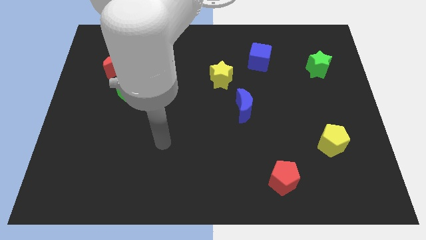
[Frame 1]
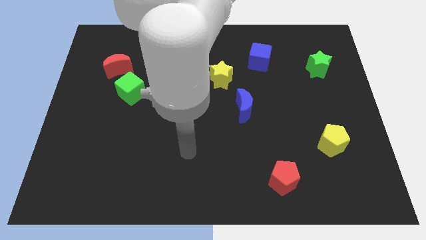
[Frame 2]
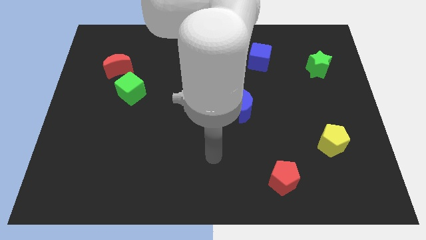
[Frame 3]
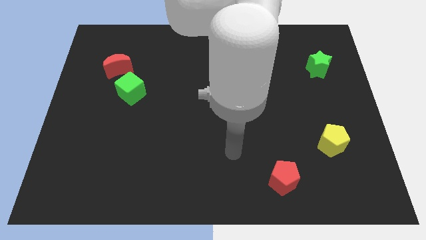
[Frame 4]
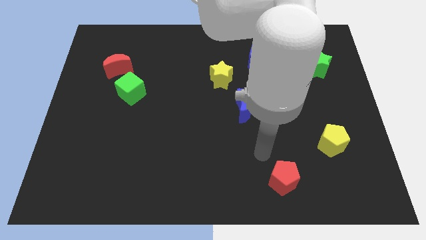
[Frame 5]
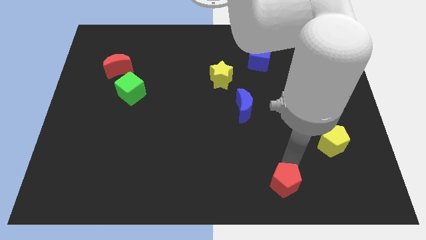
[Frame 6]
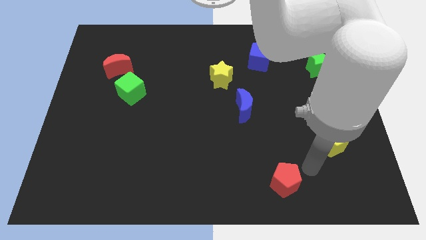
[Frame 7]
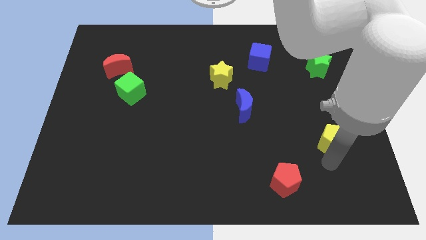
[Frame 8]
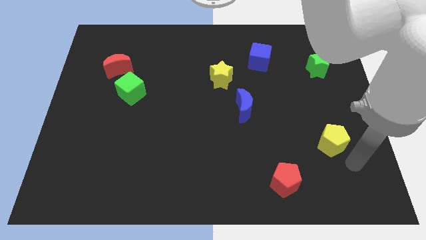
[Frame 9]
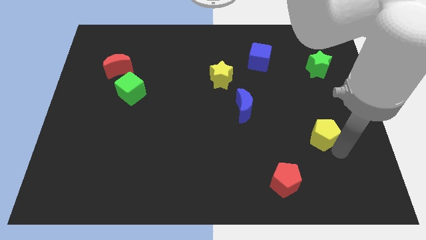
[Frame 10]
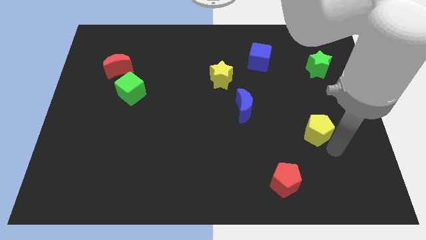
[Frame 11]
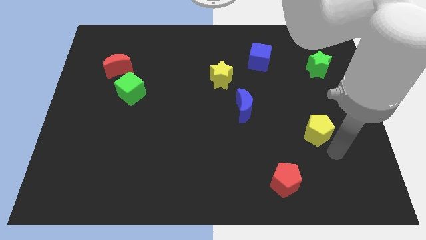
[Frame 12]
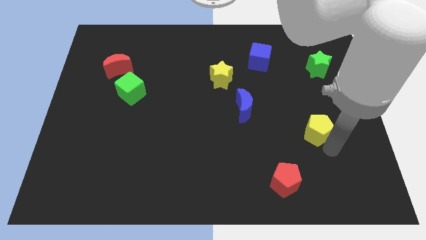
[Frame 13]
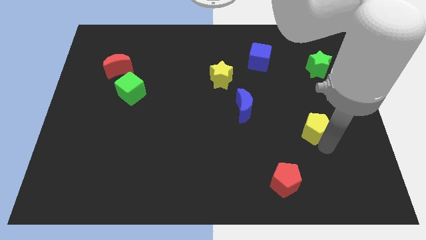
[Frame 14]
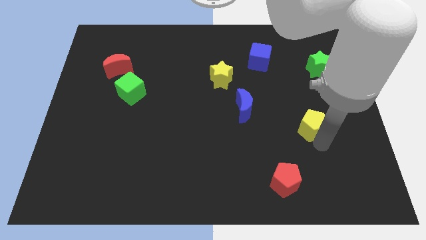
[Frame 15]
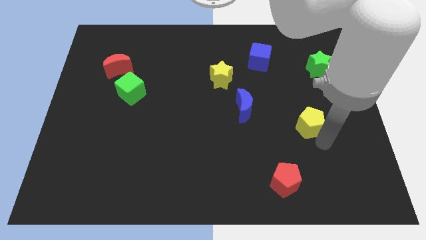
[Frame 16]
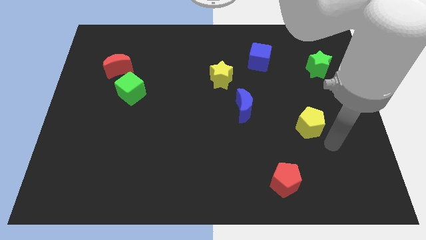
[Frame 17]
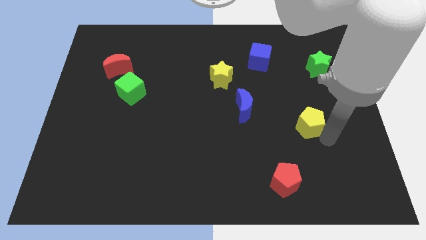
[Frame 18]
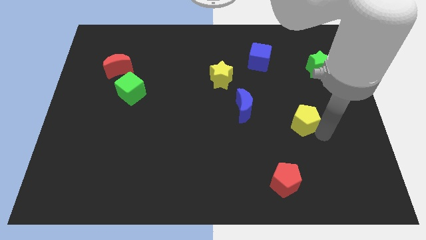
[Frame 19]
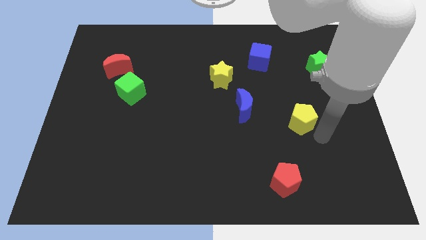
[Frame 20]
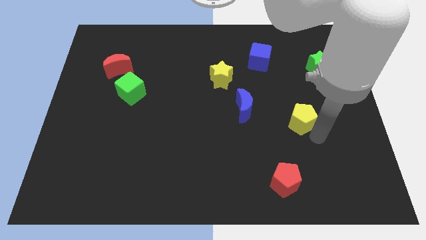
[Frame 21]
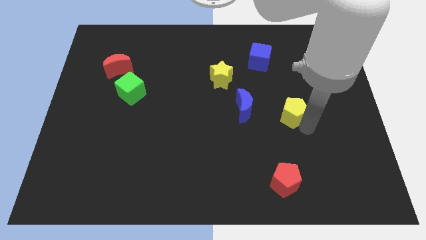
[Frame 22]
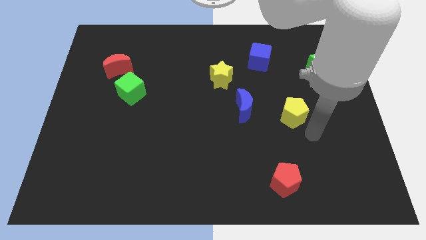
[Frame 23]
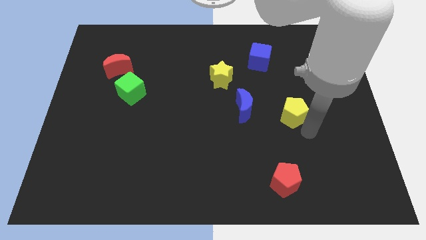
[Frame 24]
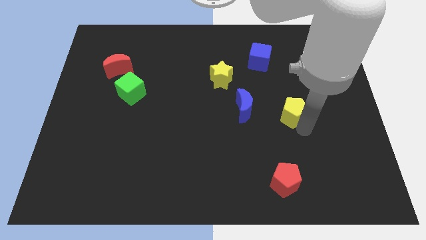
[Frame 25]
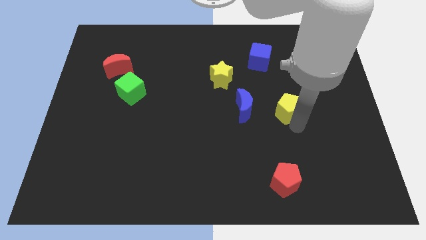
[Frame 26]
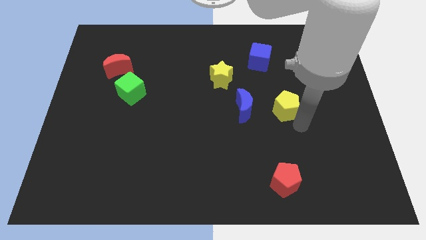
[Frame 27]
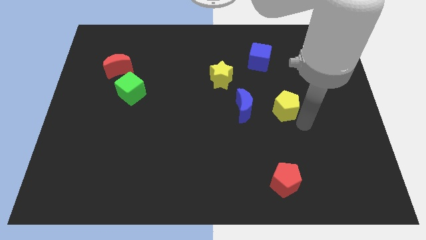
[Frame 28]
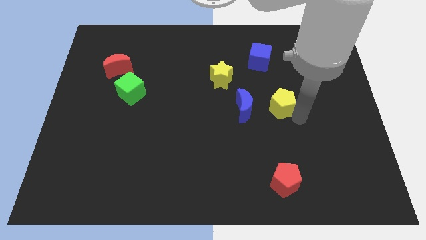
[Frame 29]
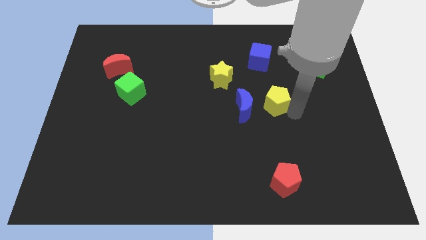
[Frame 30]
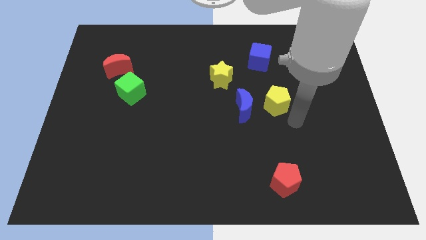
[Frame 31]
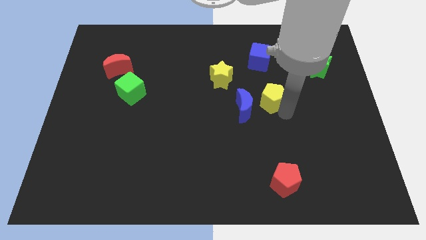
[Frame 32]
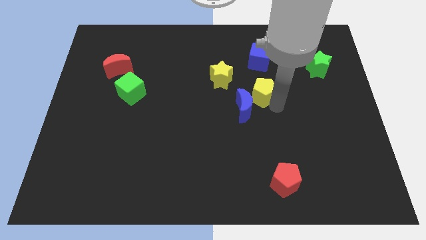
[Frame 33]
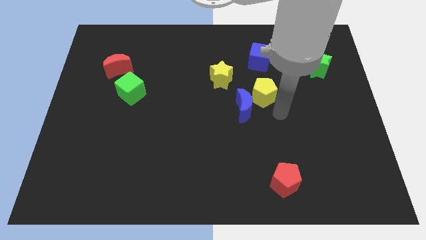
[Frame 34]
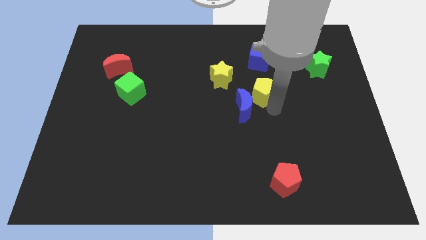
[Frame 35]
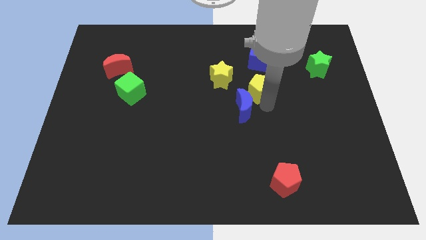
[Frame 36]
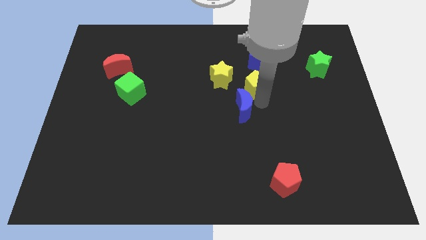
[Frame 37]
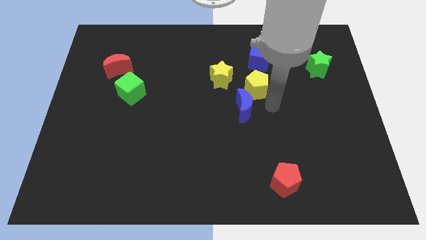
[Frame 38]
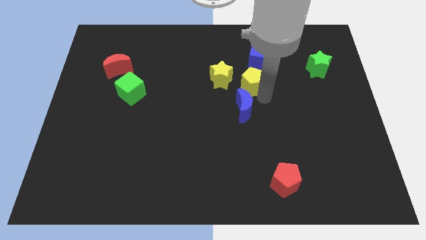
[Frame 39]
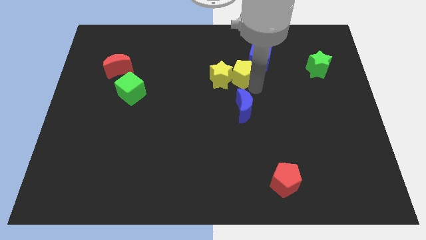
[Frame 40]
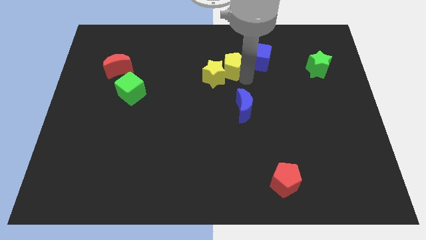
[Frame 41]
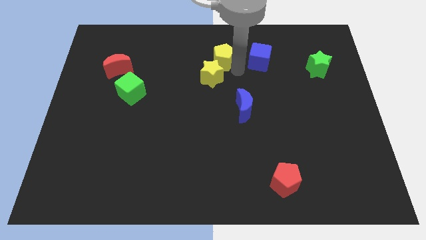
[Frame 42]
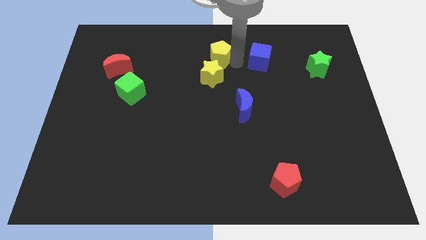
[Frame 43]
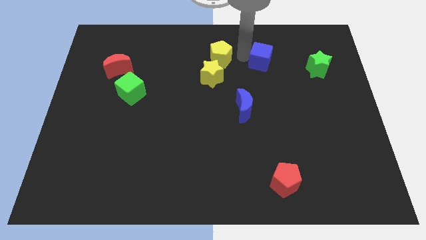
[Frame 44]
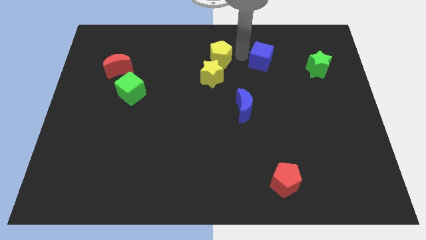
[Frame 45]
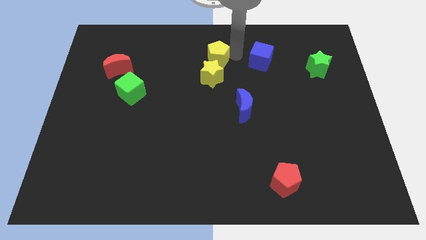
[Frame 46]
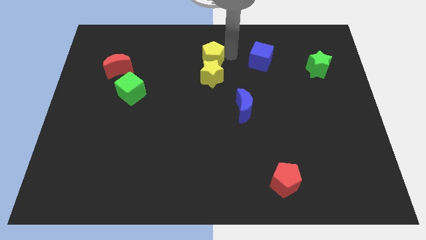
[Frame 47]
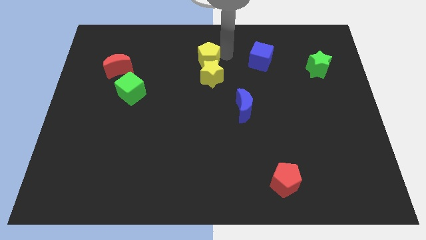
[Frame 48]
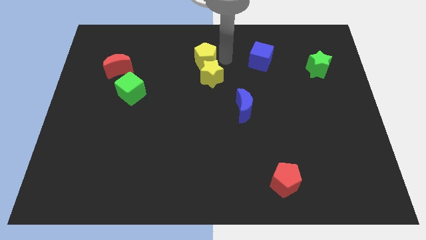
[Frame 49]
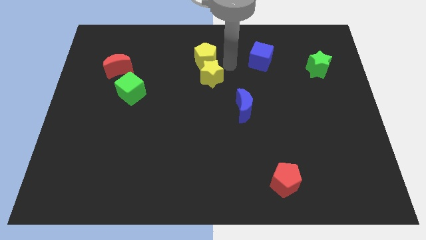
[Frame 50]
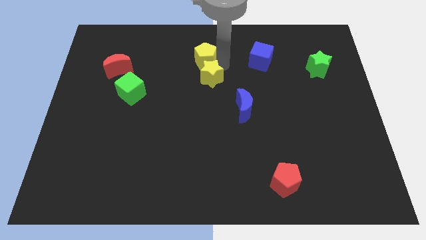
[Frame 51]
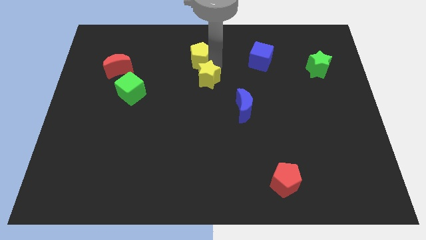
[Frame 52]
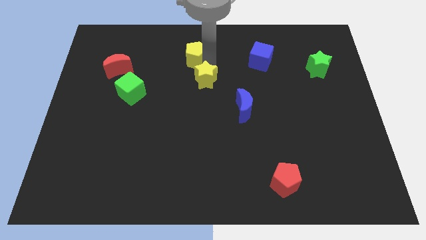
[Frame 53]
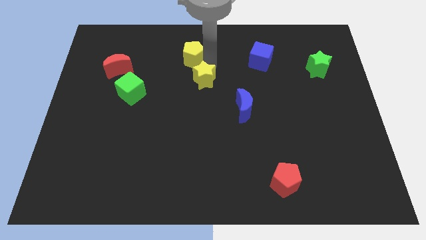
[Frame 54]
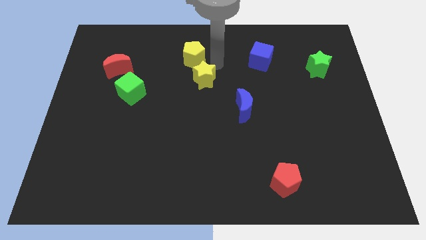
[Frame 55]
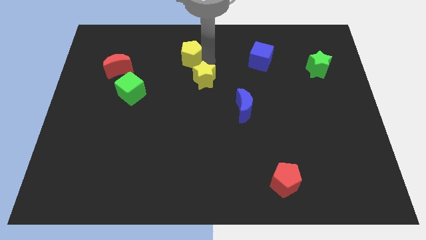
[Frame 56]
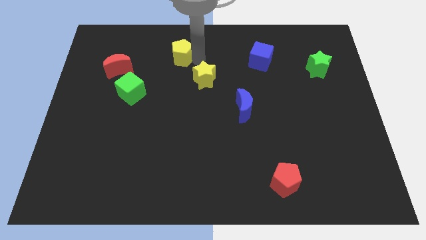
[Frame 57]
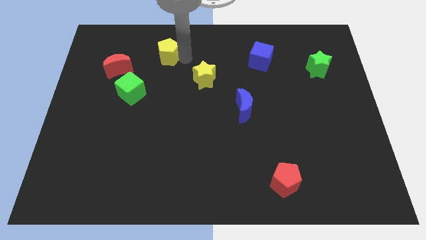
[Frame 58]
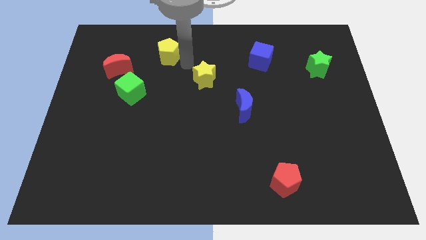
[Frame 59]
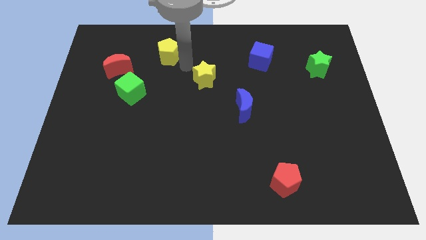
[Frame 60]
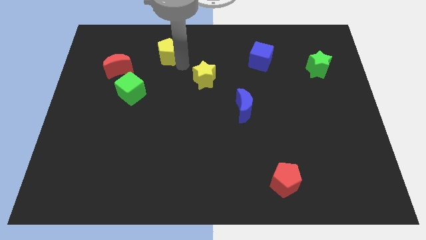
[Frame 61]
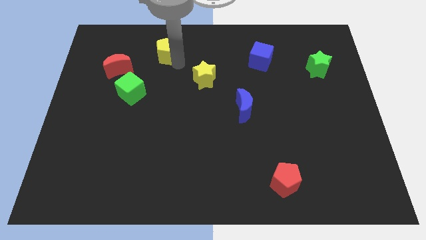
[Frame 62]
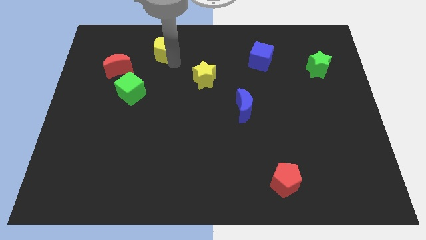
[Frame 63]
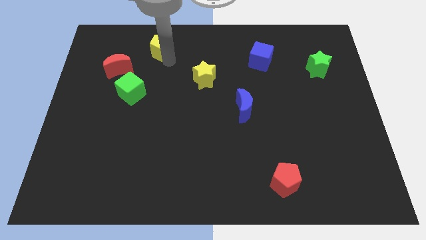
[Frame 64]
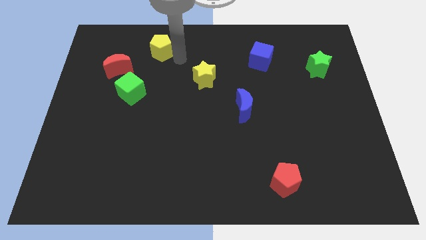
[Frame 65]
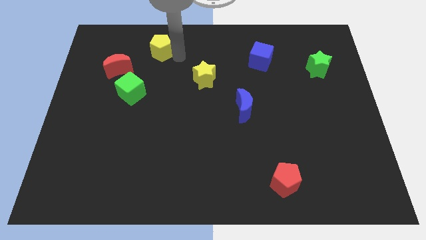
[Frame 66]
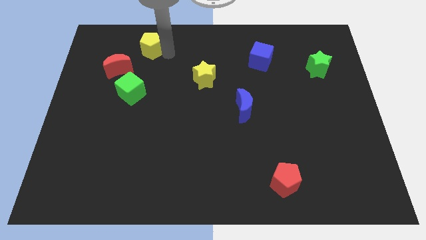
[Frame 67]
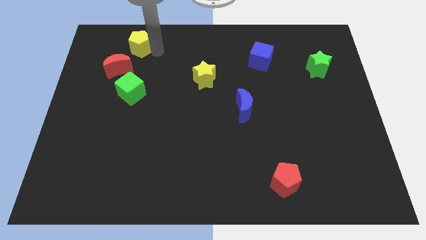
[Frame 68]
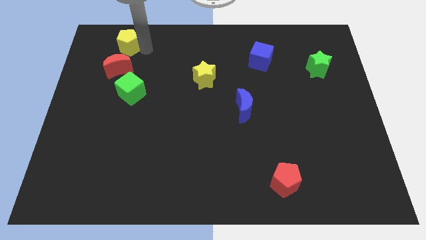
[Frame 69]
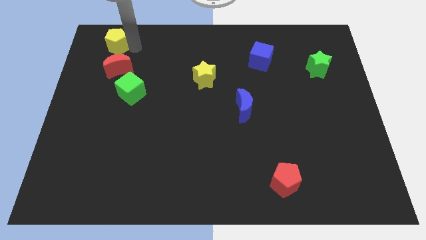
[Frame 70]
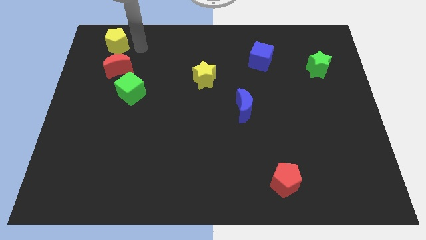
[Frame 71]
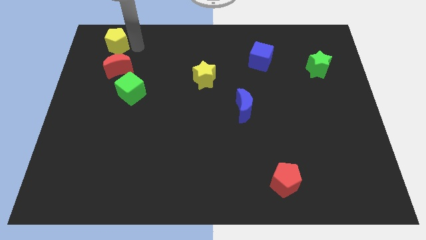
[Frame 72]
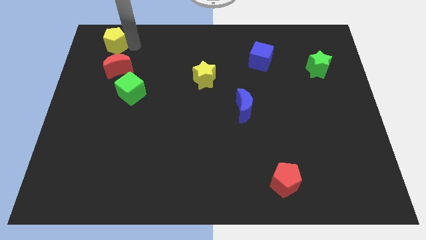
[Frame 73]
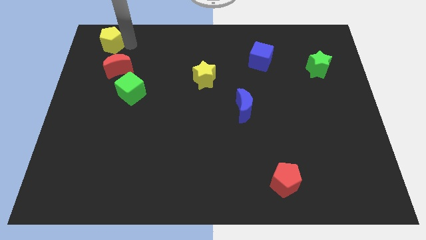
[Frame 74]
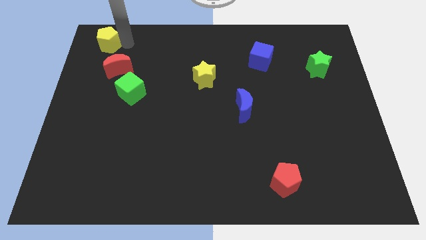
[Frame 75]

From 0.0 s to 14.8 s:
push the yellow pentagon to the upper left corner
